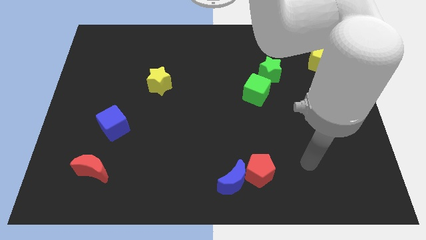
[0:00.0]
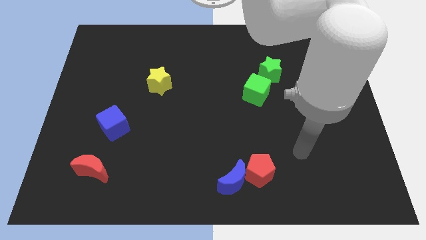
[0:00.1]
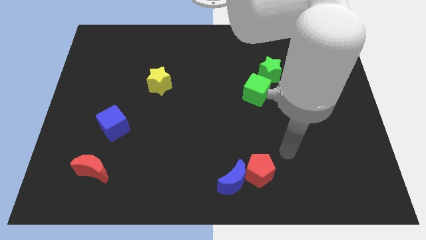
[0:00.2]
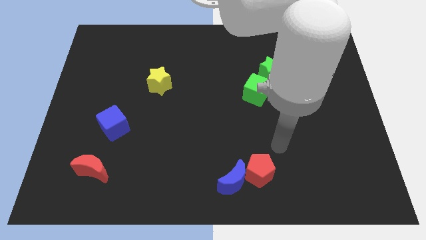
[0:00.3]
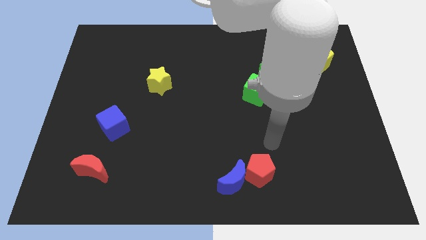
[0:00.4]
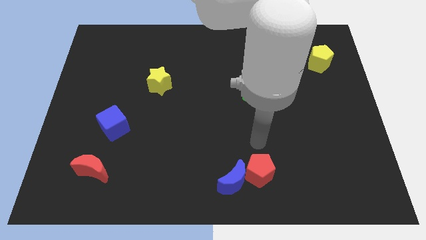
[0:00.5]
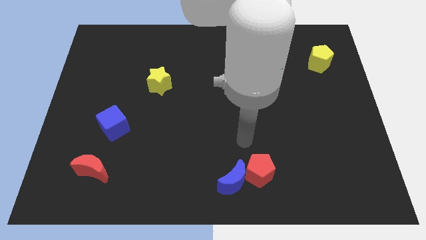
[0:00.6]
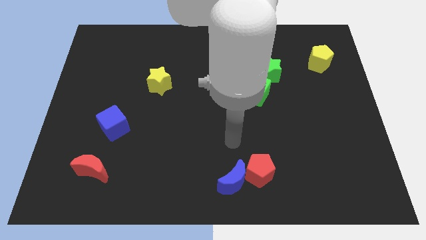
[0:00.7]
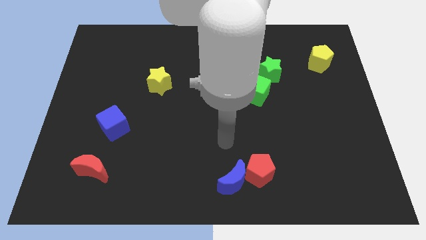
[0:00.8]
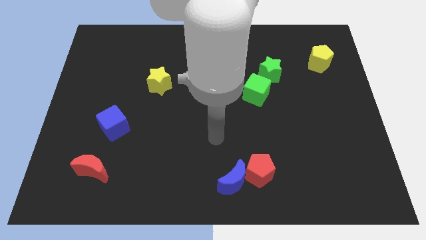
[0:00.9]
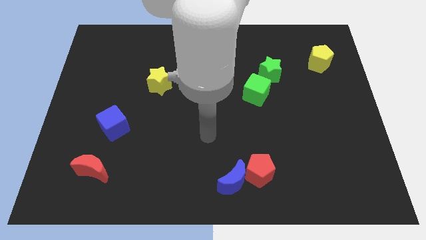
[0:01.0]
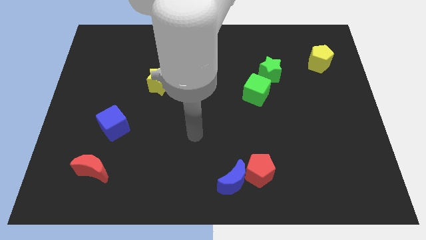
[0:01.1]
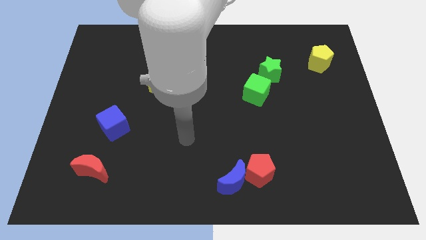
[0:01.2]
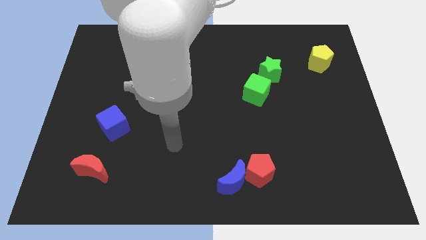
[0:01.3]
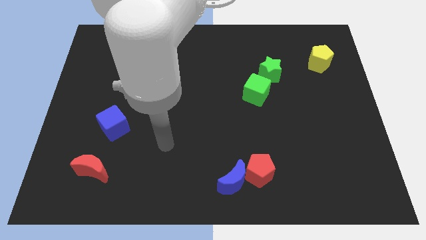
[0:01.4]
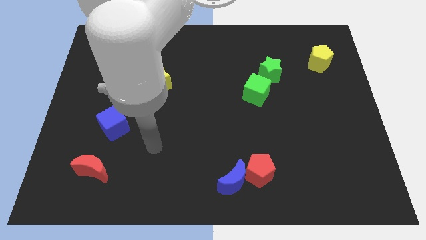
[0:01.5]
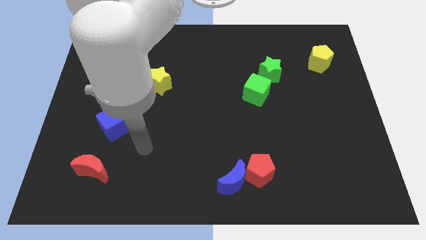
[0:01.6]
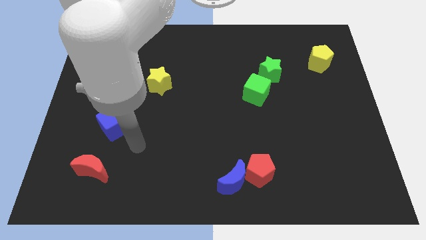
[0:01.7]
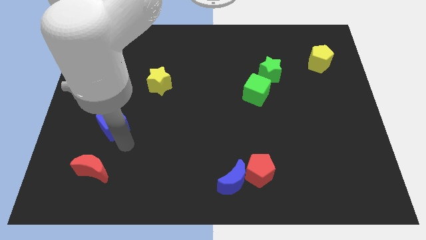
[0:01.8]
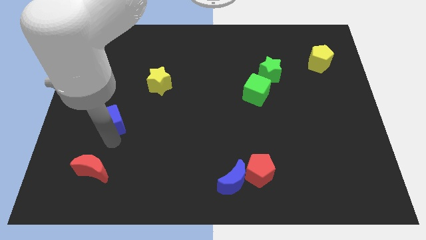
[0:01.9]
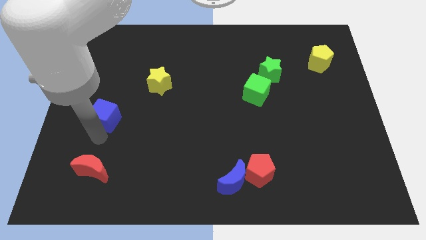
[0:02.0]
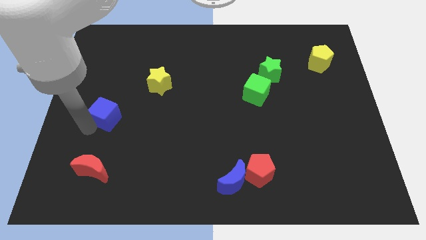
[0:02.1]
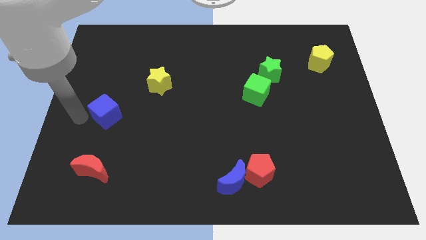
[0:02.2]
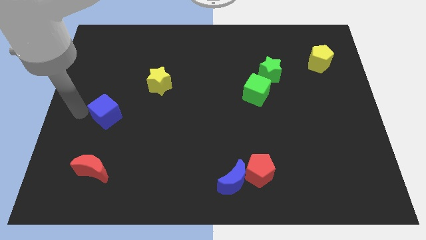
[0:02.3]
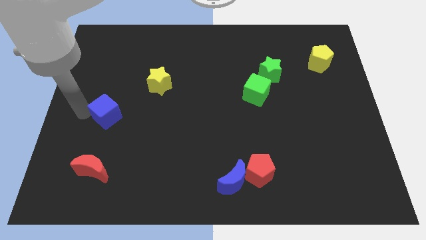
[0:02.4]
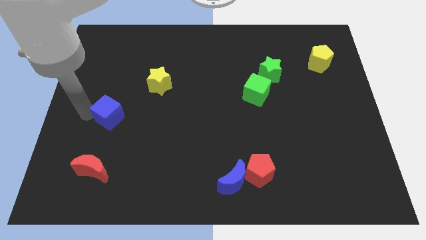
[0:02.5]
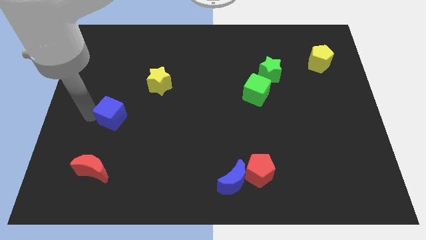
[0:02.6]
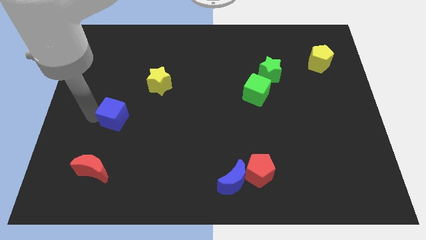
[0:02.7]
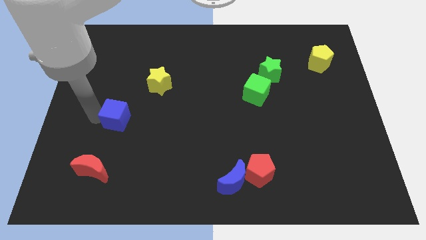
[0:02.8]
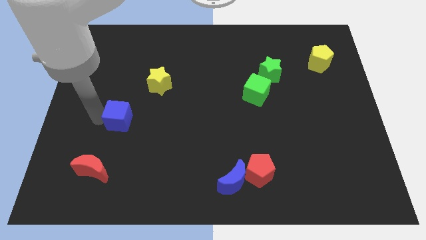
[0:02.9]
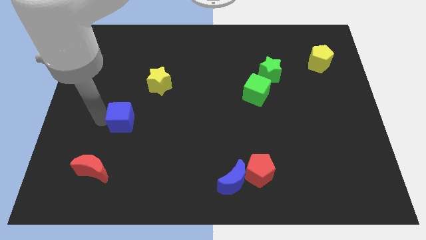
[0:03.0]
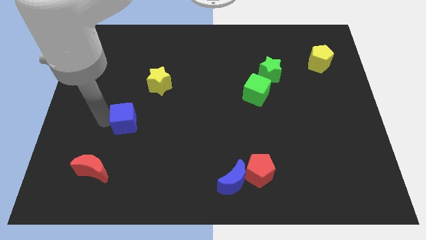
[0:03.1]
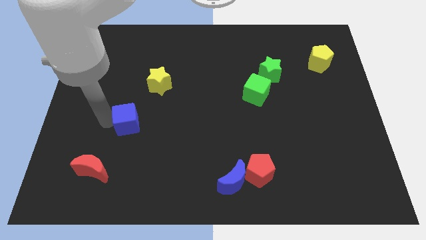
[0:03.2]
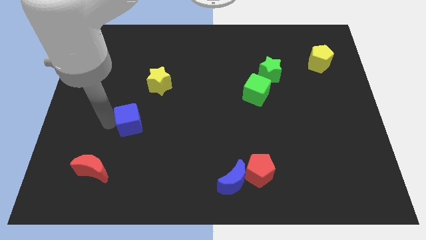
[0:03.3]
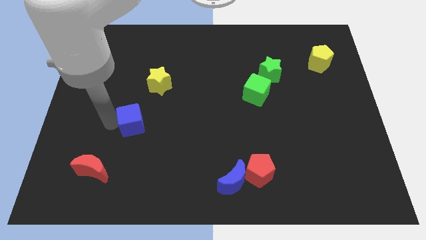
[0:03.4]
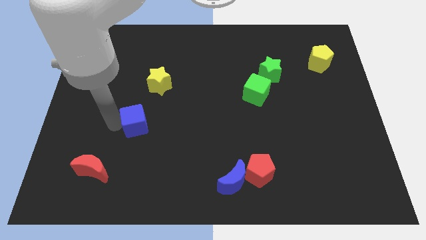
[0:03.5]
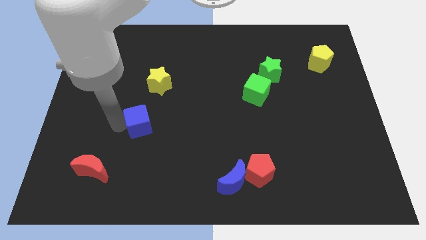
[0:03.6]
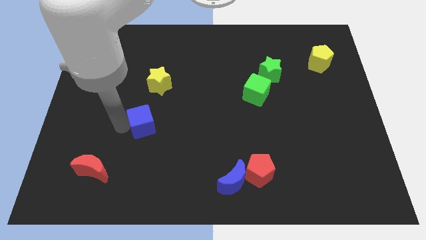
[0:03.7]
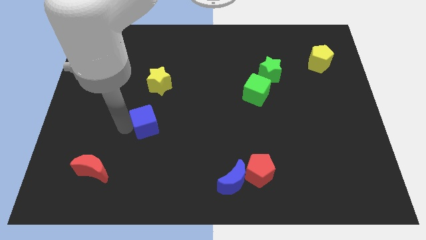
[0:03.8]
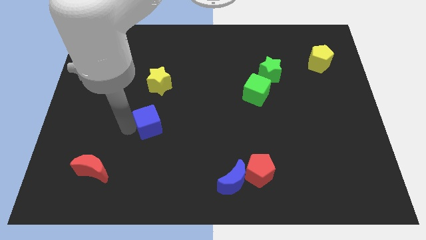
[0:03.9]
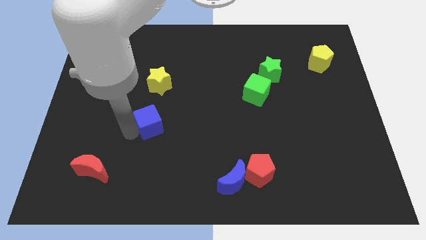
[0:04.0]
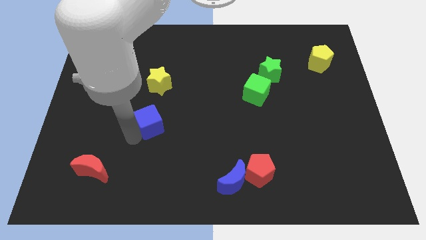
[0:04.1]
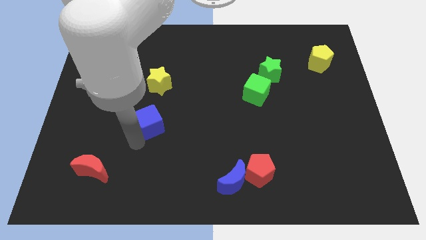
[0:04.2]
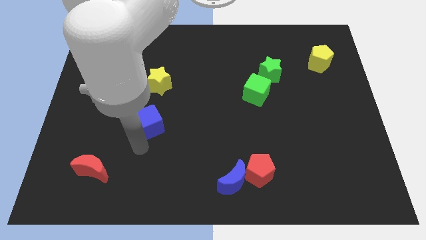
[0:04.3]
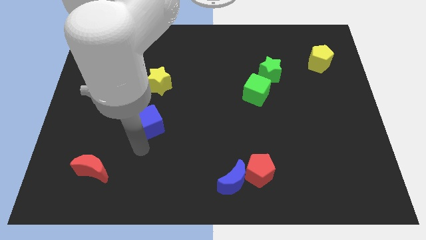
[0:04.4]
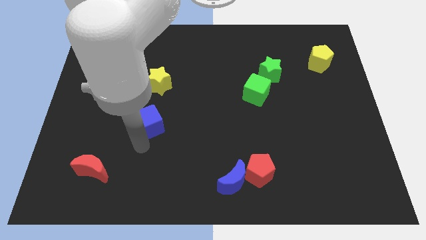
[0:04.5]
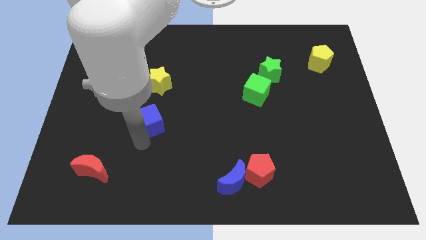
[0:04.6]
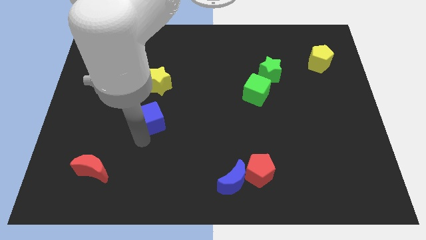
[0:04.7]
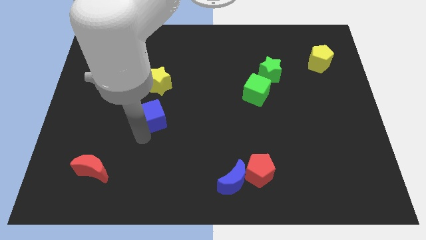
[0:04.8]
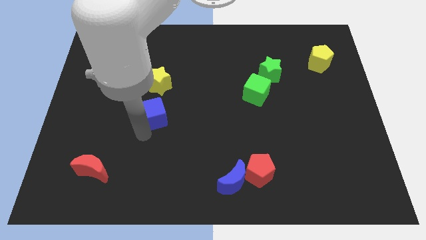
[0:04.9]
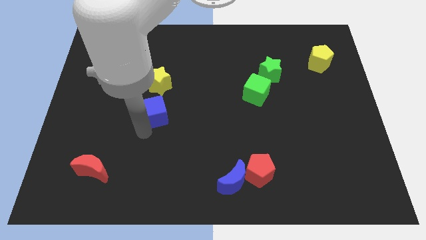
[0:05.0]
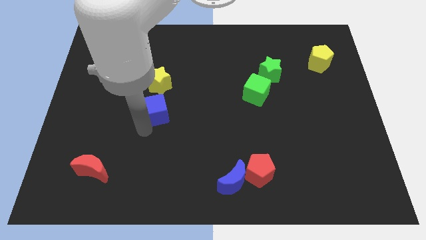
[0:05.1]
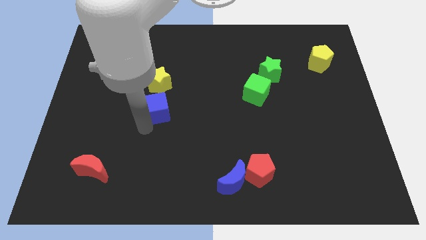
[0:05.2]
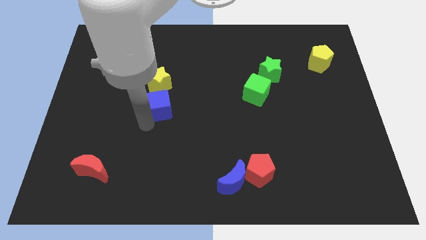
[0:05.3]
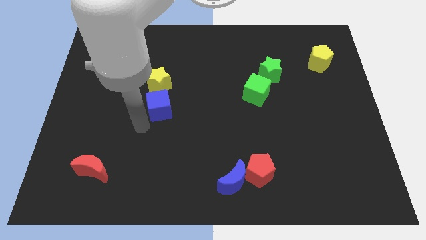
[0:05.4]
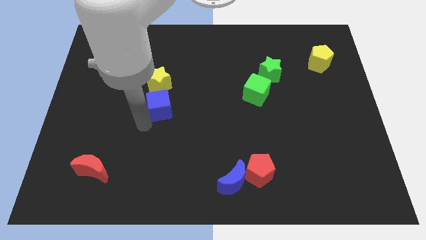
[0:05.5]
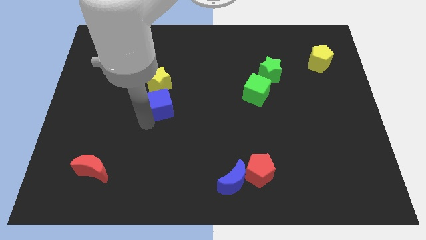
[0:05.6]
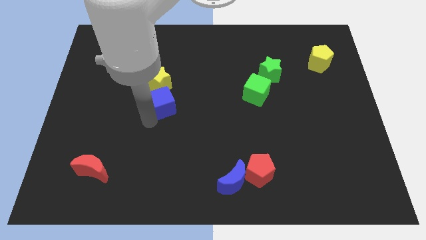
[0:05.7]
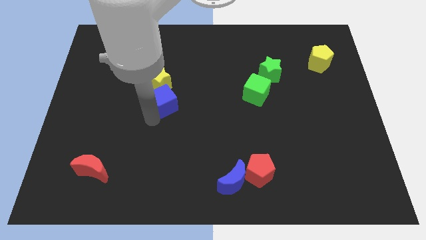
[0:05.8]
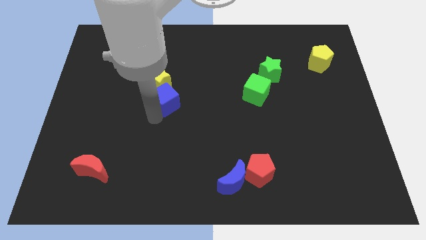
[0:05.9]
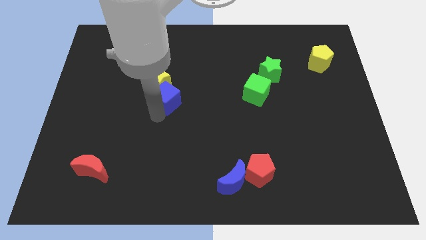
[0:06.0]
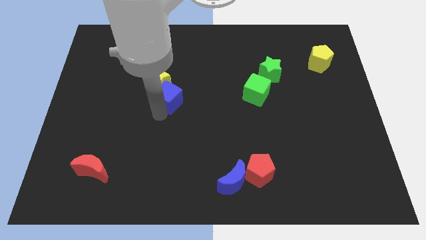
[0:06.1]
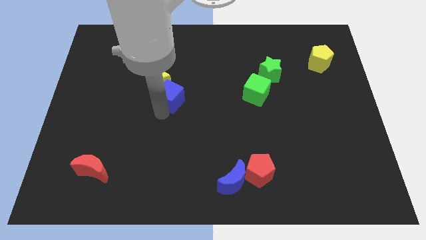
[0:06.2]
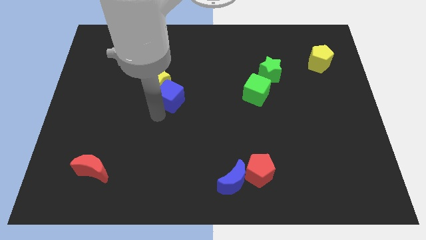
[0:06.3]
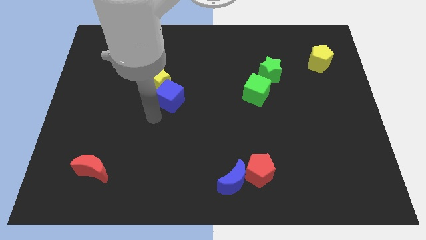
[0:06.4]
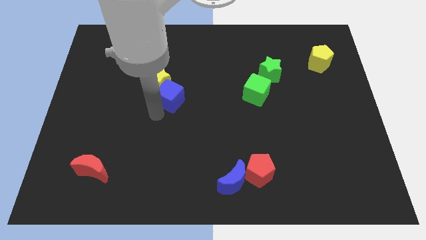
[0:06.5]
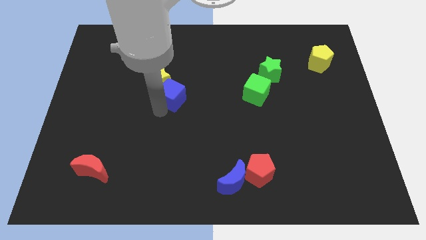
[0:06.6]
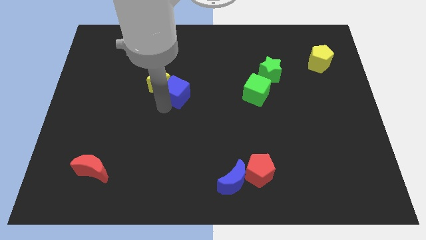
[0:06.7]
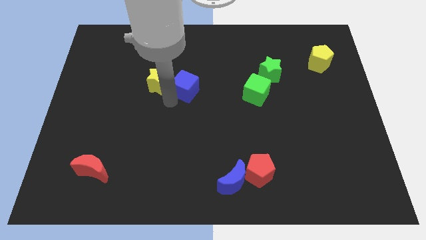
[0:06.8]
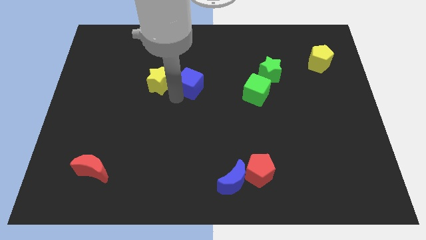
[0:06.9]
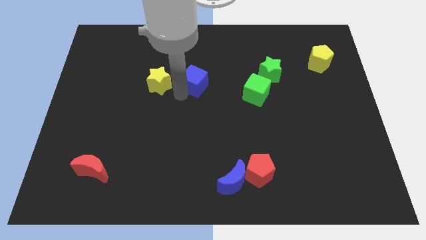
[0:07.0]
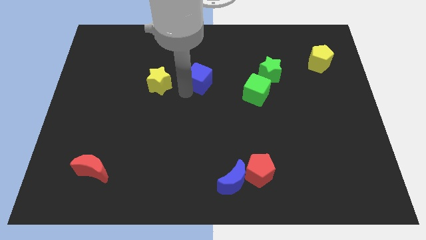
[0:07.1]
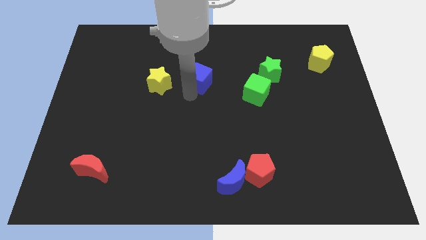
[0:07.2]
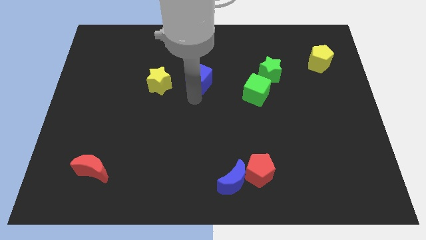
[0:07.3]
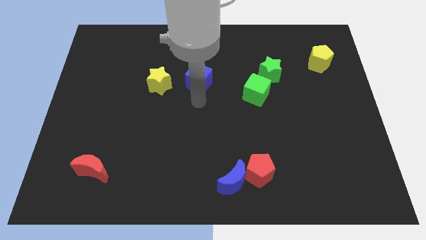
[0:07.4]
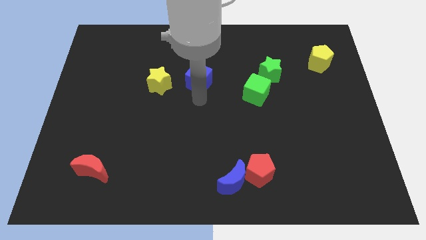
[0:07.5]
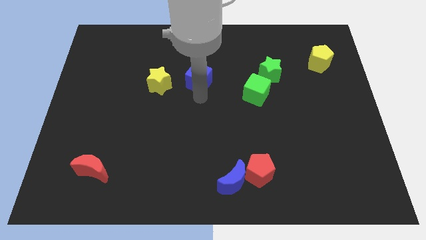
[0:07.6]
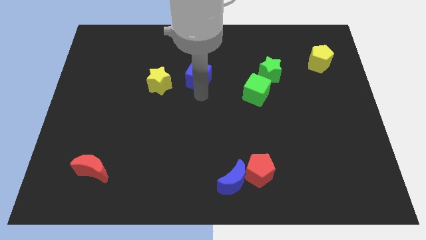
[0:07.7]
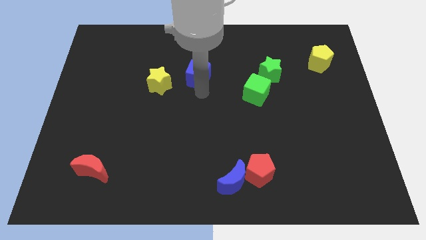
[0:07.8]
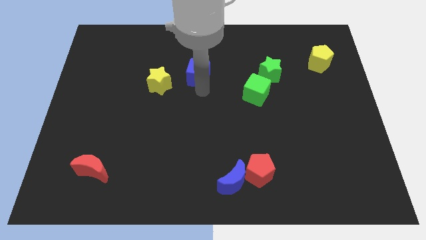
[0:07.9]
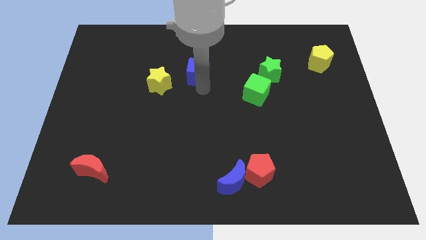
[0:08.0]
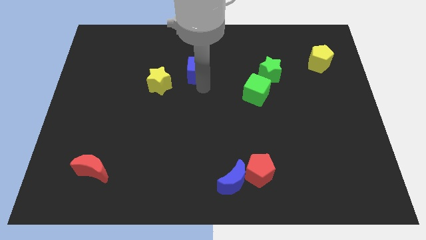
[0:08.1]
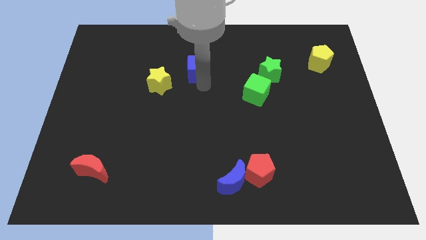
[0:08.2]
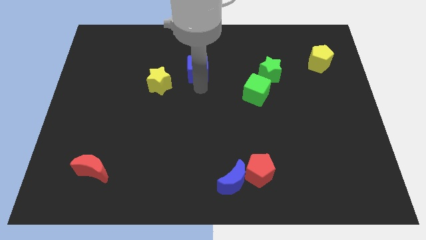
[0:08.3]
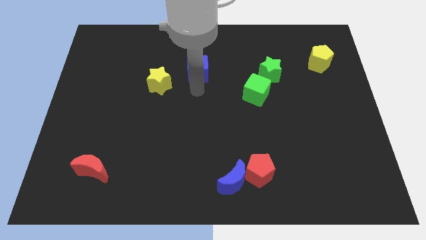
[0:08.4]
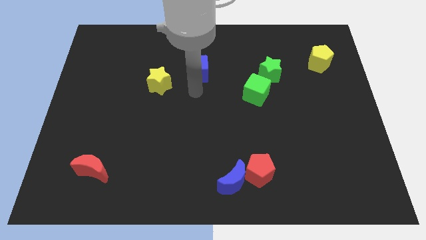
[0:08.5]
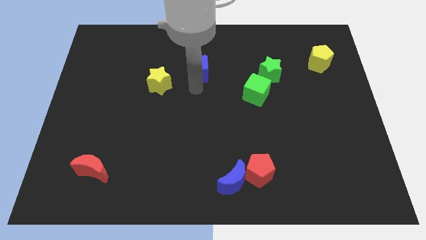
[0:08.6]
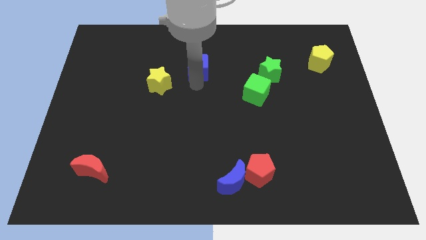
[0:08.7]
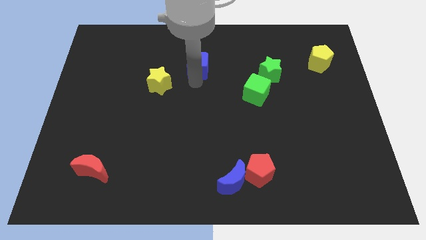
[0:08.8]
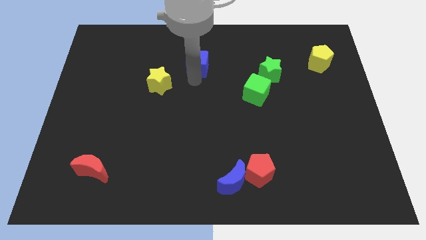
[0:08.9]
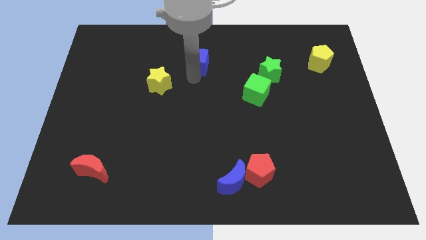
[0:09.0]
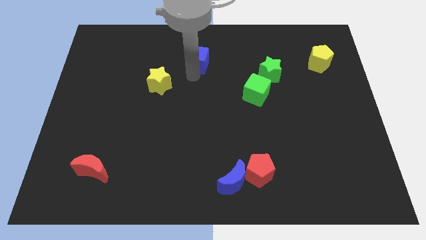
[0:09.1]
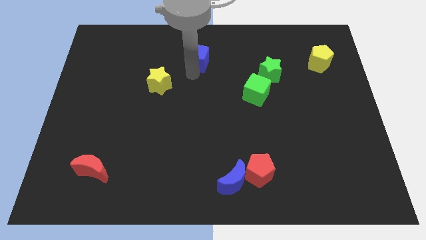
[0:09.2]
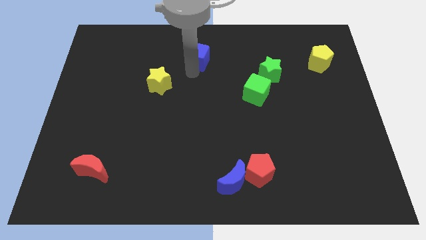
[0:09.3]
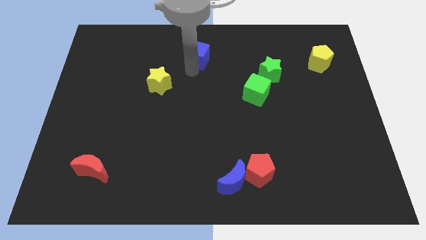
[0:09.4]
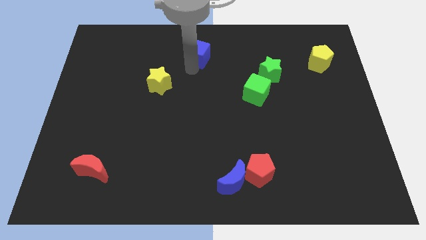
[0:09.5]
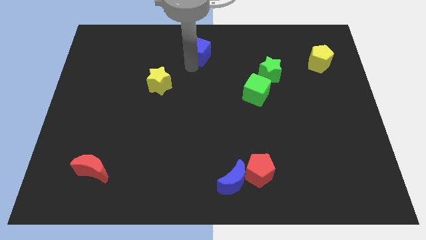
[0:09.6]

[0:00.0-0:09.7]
put the blue cube to the top
